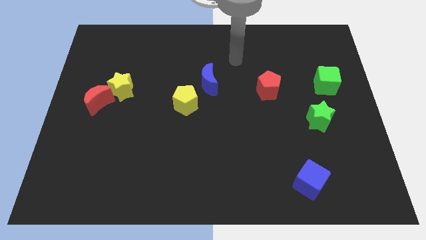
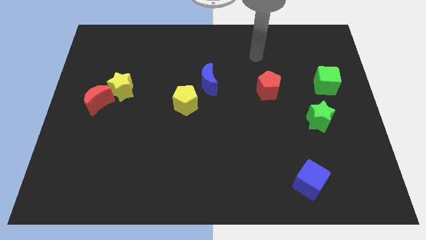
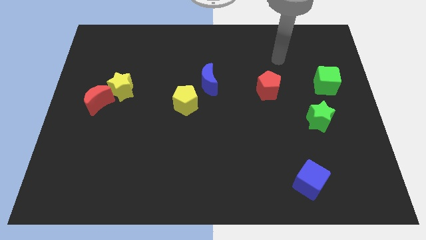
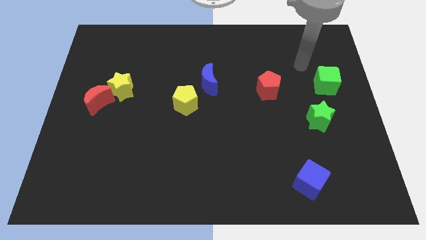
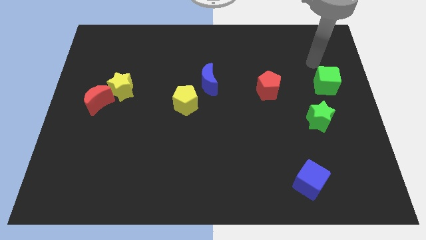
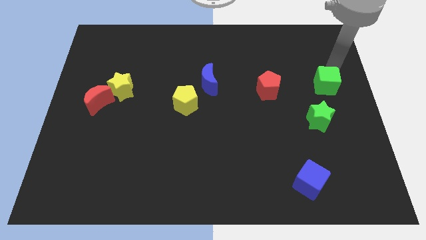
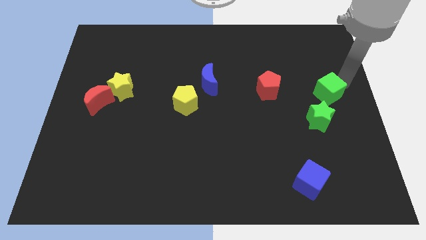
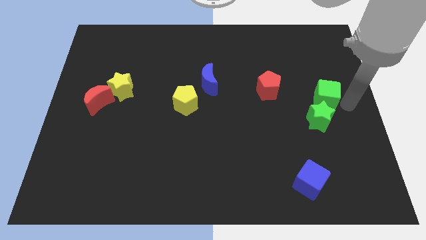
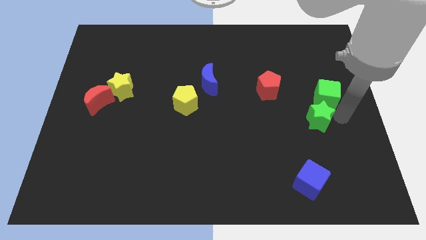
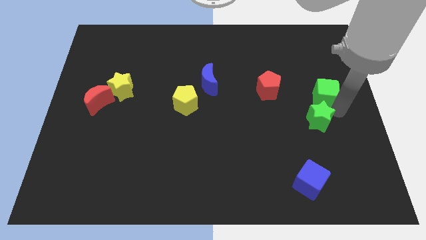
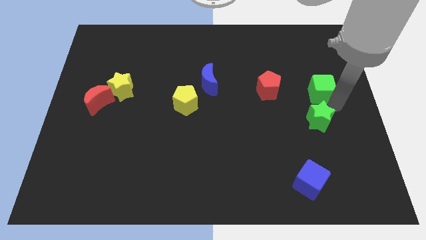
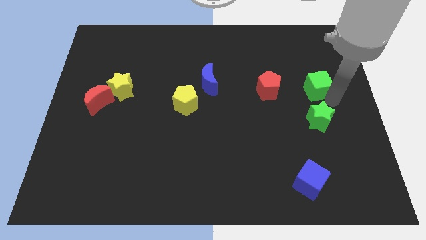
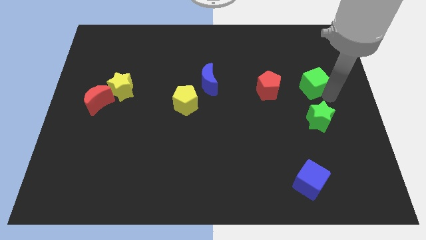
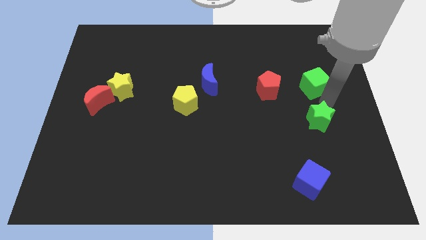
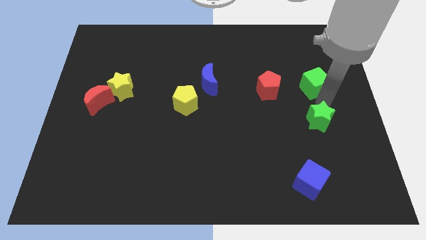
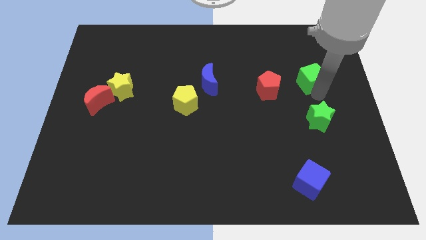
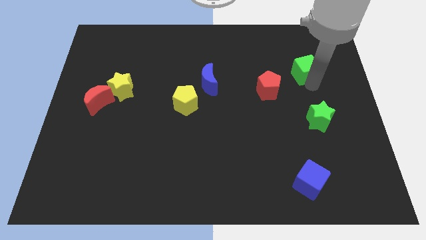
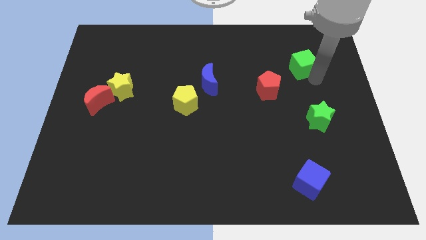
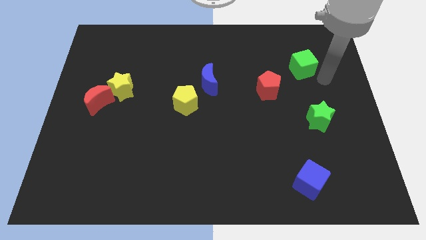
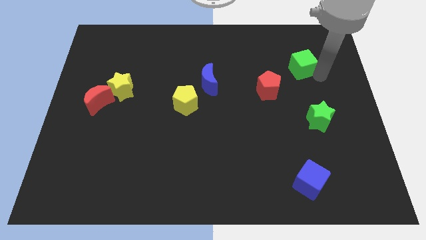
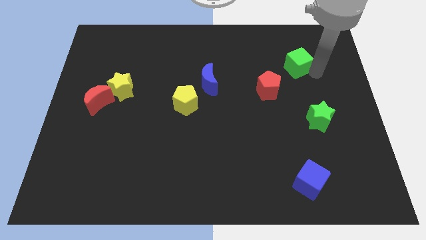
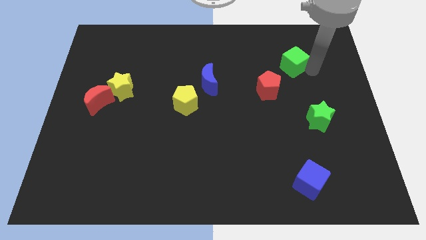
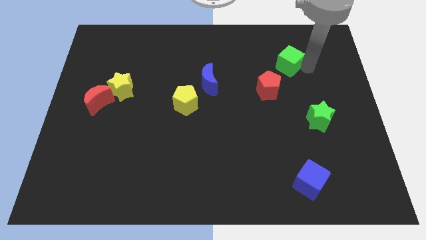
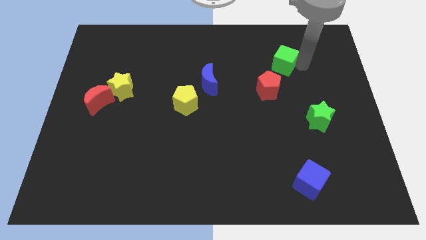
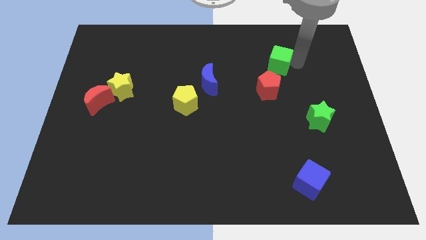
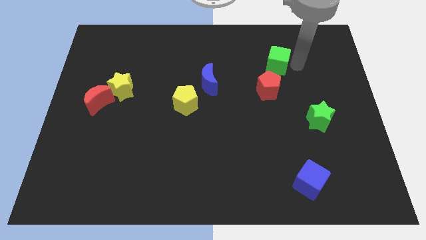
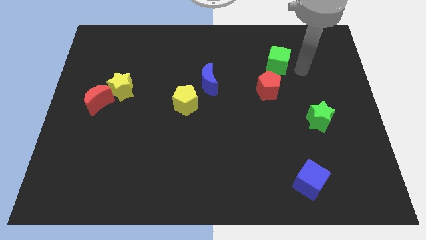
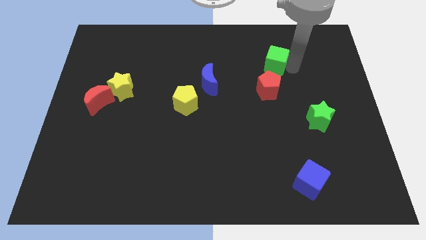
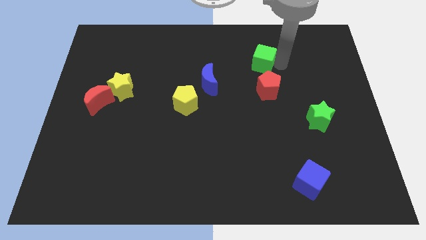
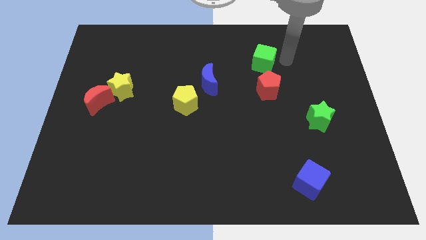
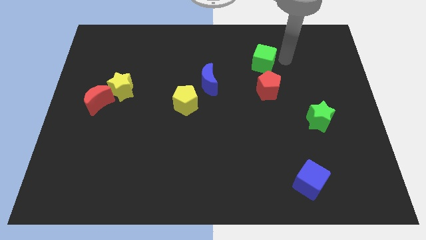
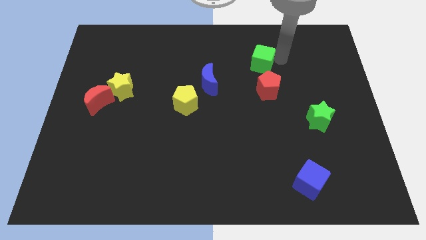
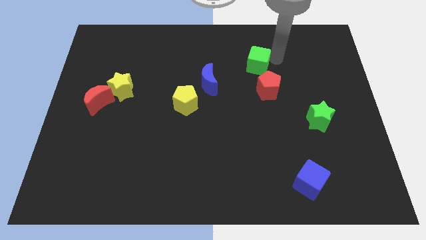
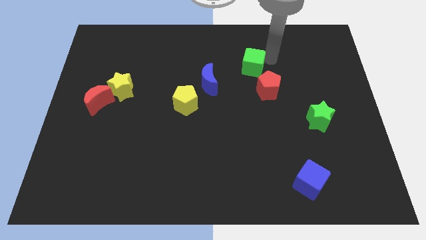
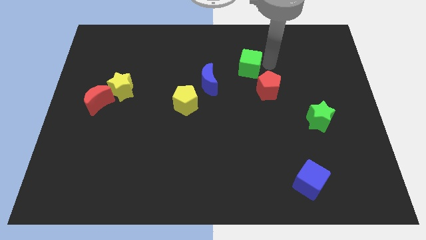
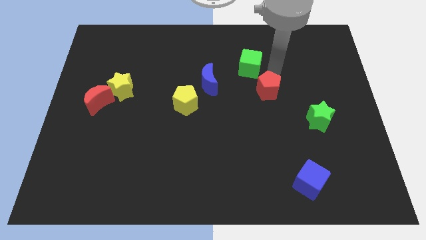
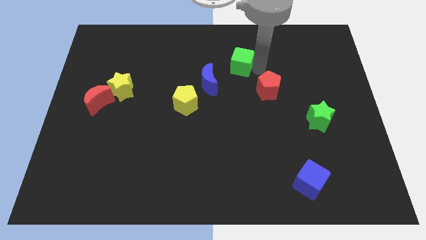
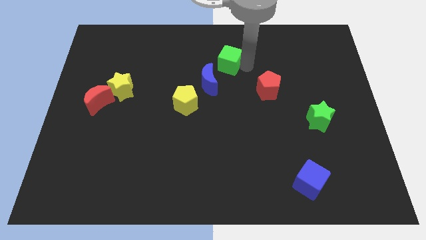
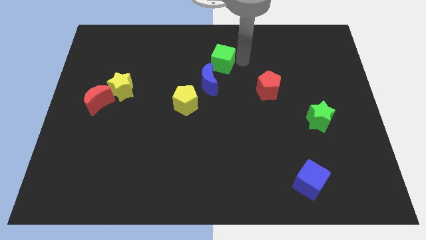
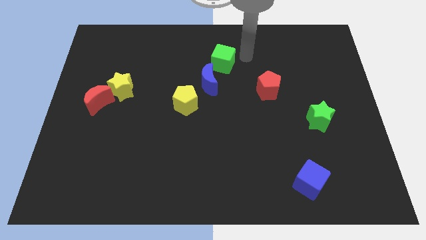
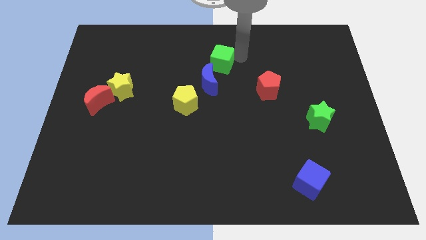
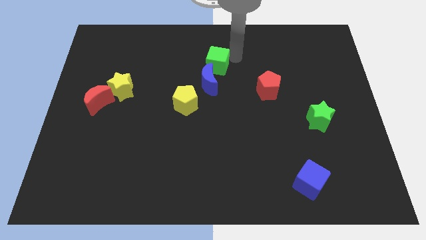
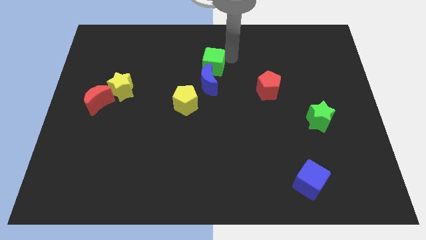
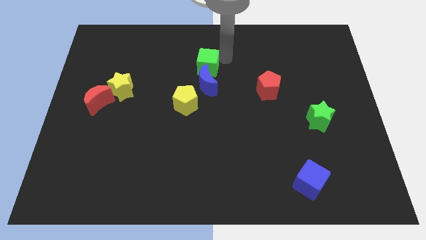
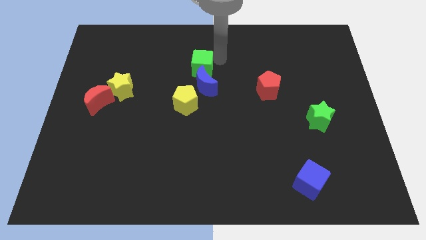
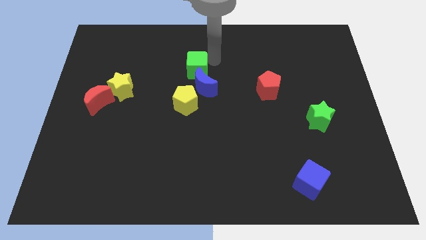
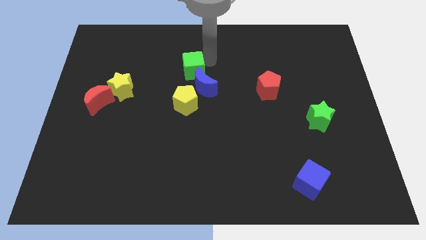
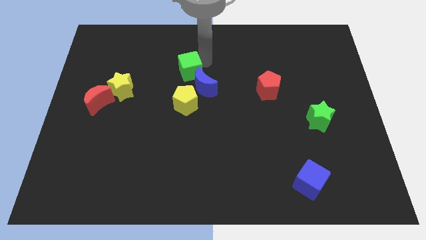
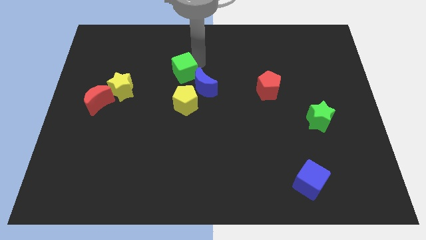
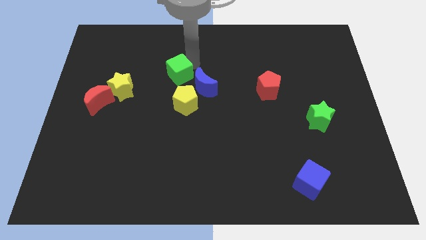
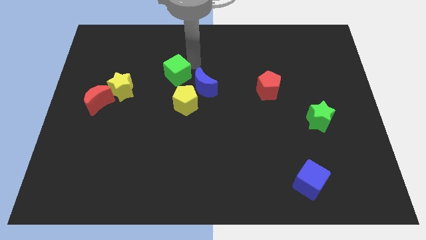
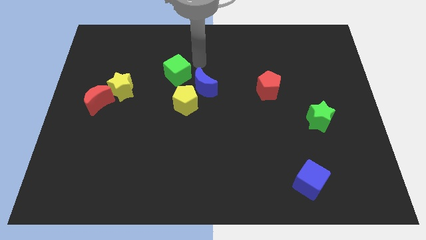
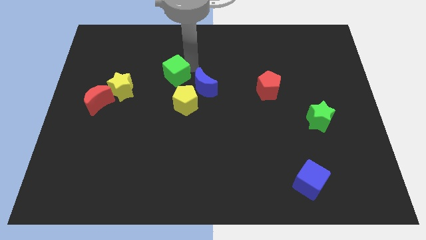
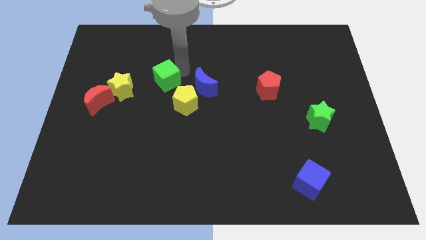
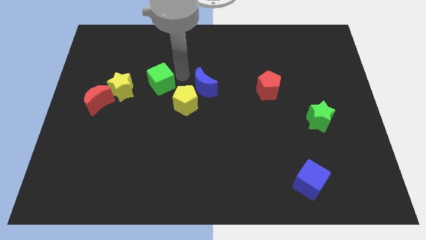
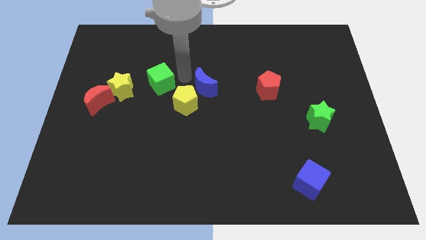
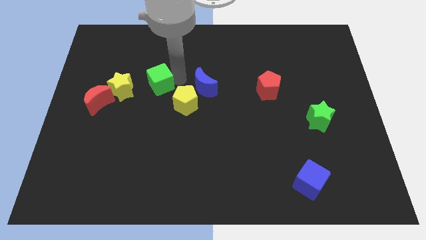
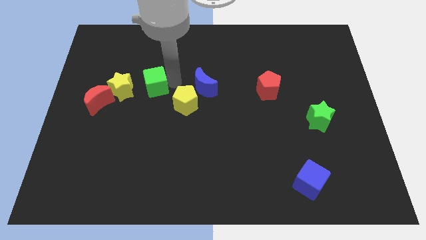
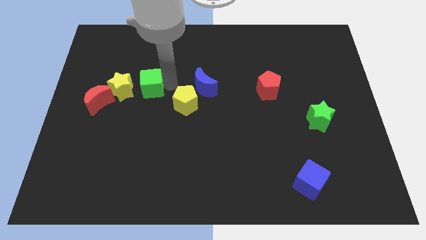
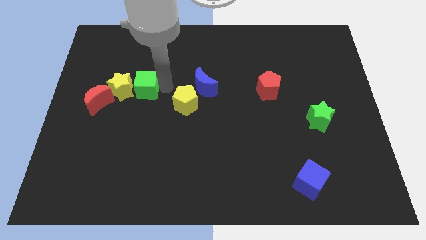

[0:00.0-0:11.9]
put the green cube towards the yellow star
